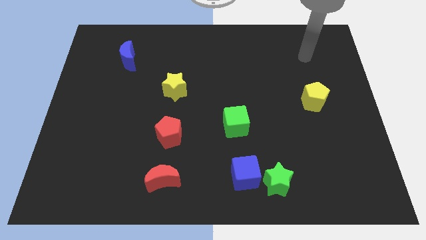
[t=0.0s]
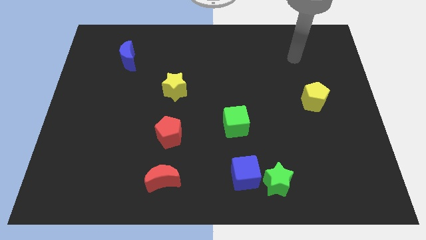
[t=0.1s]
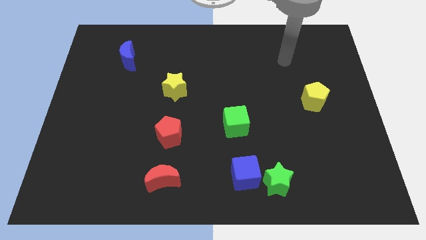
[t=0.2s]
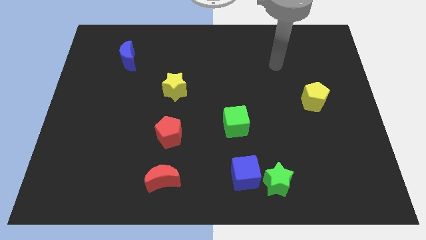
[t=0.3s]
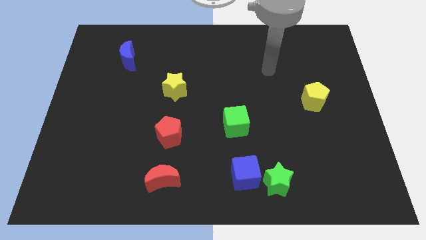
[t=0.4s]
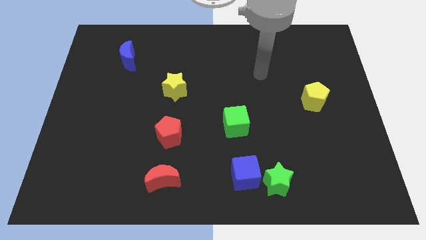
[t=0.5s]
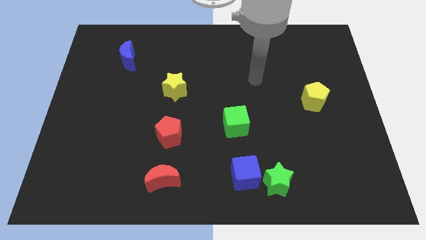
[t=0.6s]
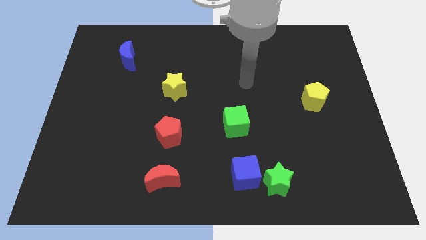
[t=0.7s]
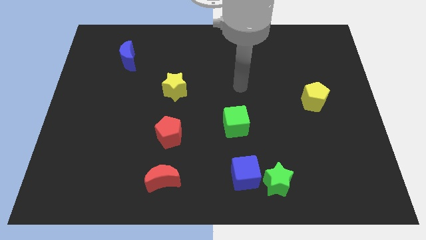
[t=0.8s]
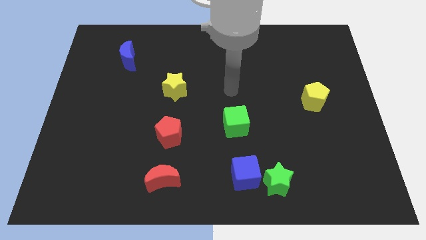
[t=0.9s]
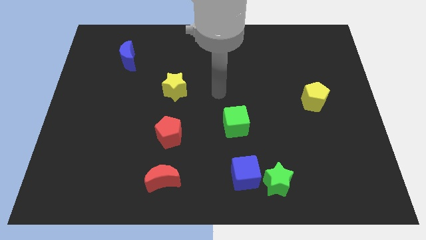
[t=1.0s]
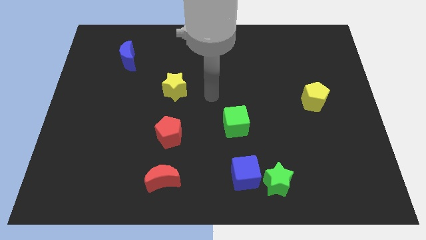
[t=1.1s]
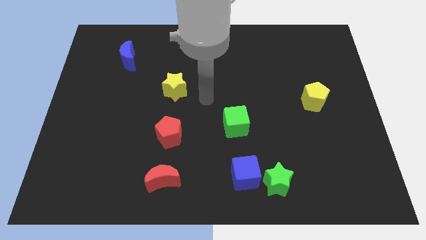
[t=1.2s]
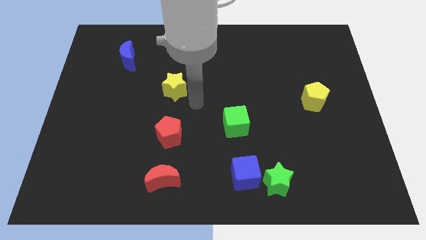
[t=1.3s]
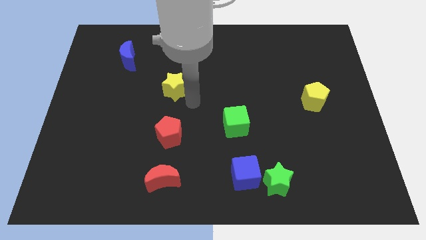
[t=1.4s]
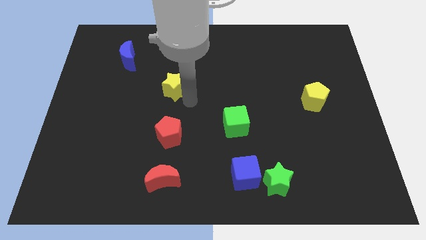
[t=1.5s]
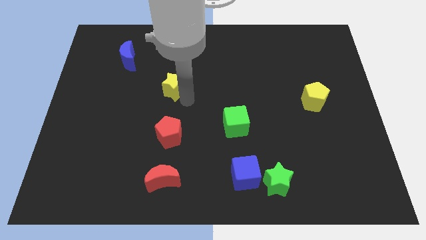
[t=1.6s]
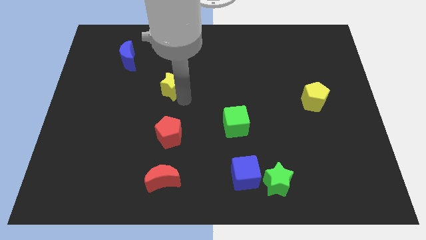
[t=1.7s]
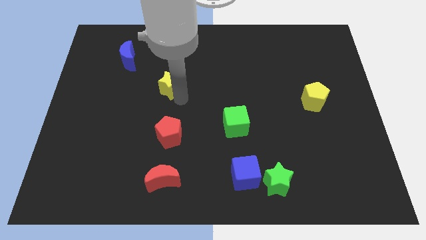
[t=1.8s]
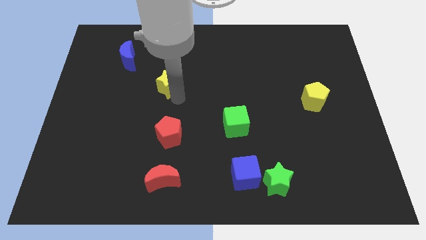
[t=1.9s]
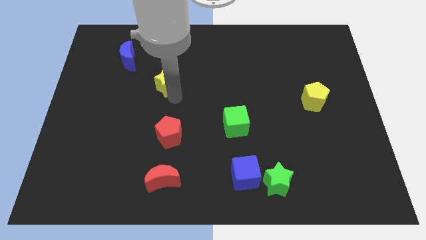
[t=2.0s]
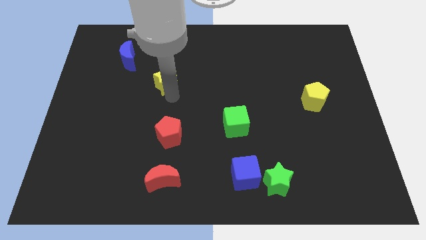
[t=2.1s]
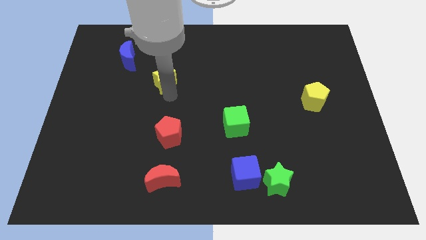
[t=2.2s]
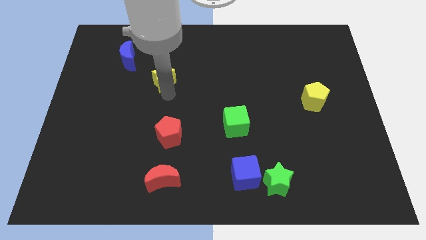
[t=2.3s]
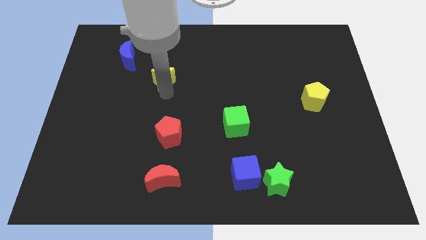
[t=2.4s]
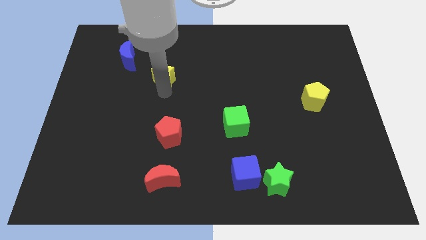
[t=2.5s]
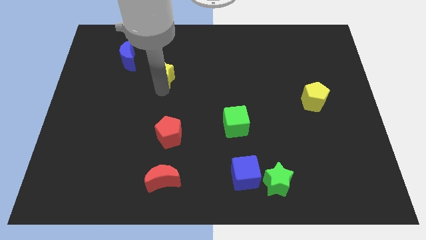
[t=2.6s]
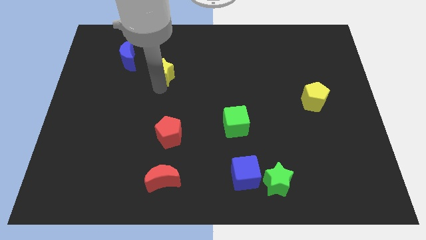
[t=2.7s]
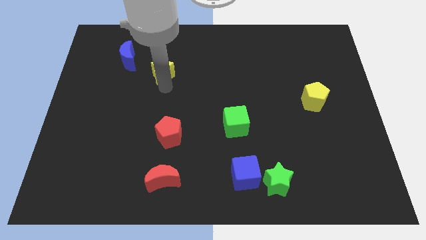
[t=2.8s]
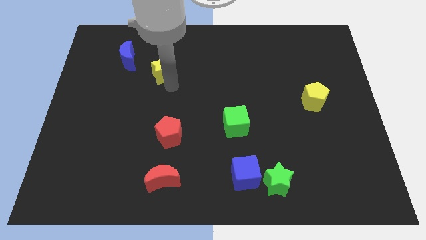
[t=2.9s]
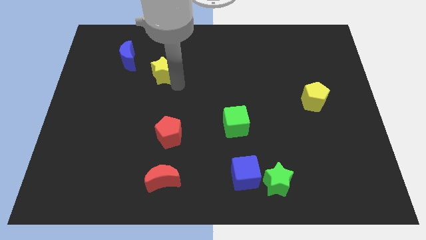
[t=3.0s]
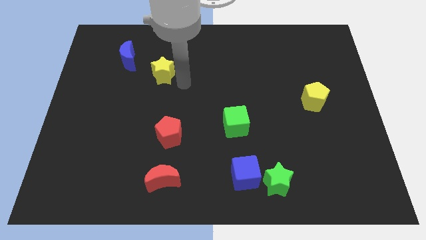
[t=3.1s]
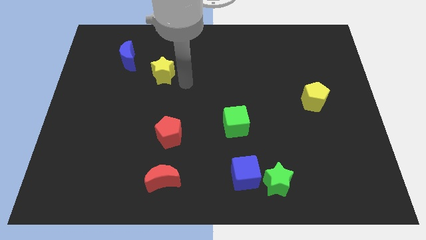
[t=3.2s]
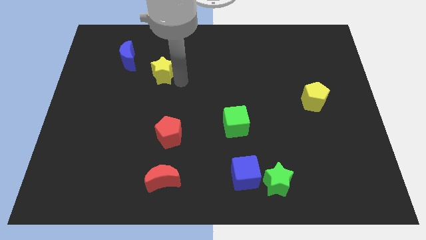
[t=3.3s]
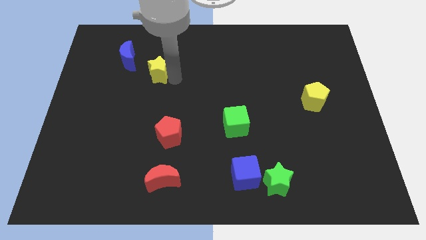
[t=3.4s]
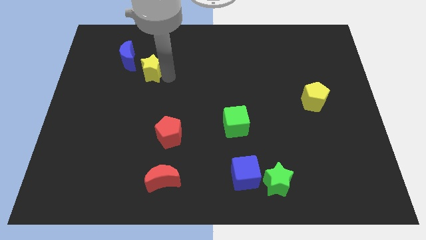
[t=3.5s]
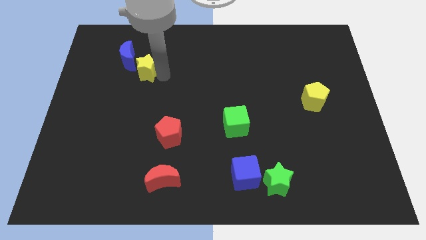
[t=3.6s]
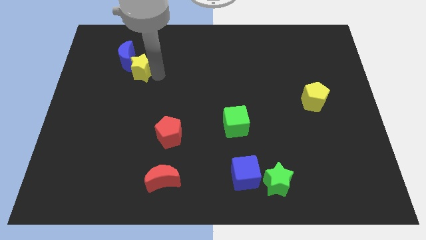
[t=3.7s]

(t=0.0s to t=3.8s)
push the yellow star to the blue moon

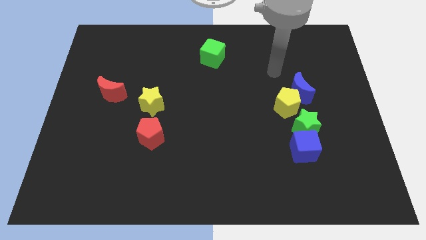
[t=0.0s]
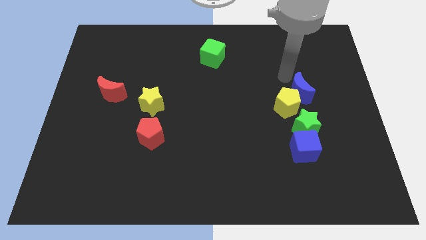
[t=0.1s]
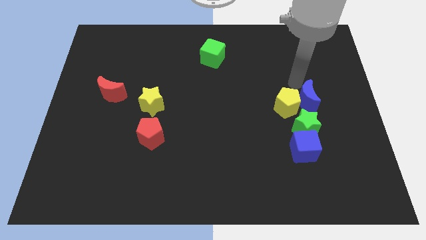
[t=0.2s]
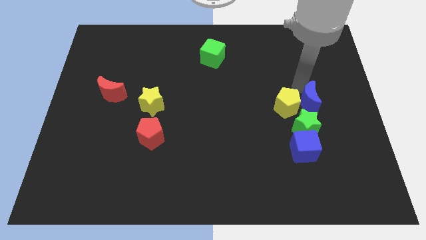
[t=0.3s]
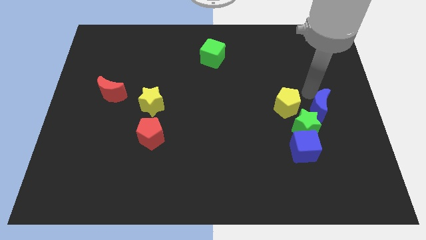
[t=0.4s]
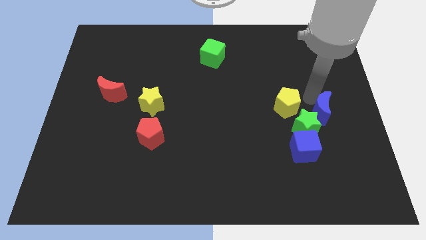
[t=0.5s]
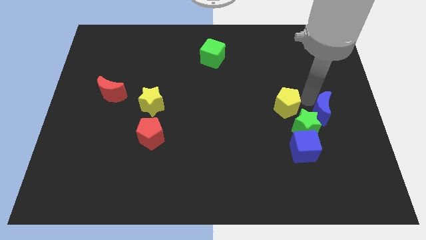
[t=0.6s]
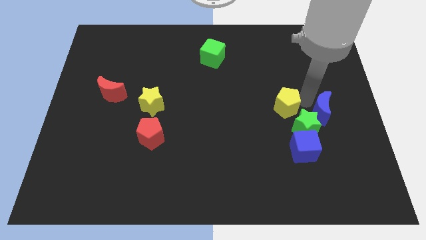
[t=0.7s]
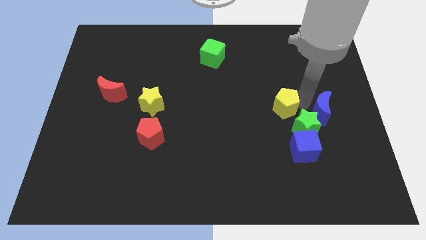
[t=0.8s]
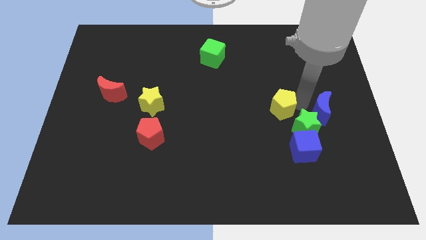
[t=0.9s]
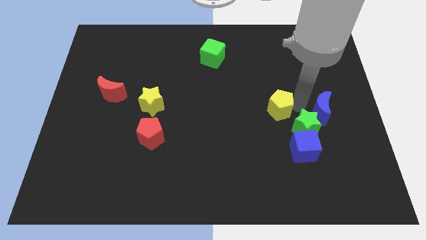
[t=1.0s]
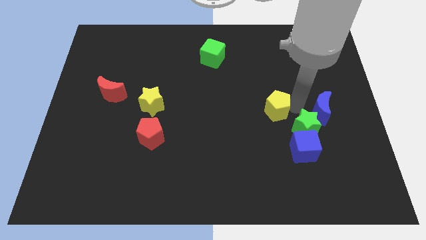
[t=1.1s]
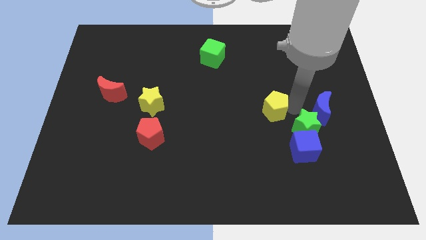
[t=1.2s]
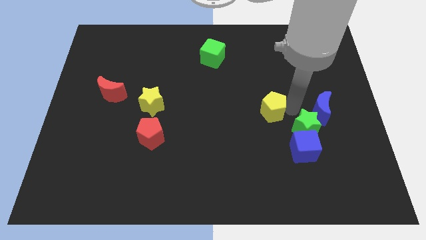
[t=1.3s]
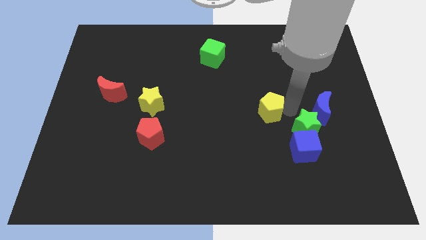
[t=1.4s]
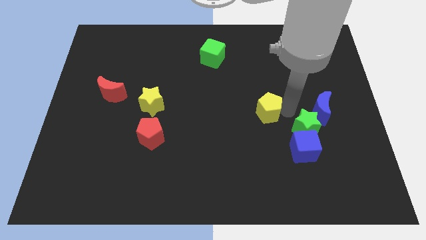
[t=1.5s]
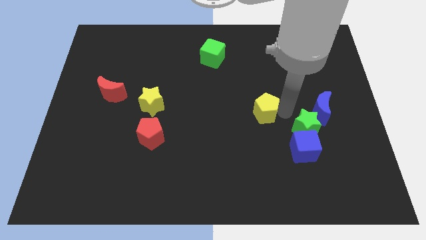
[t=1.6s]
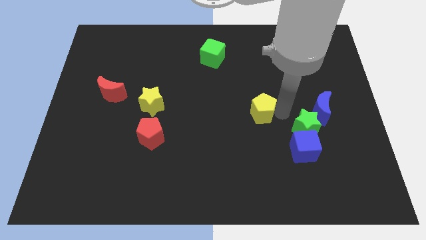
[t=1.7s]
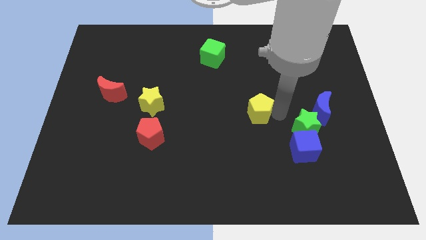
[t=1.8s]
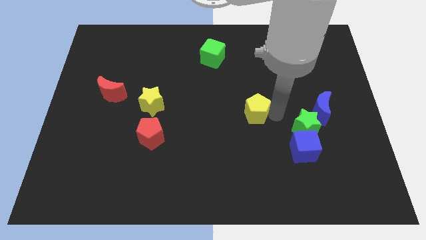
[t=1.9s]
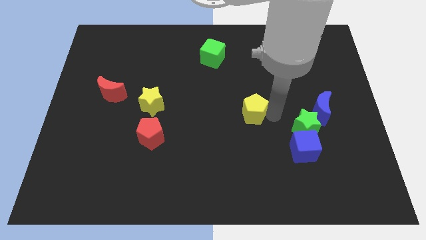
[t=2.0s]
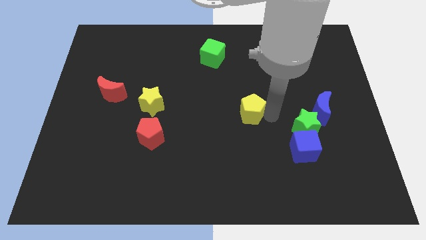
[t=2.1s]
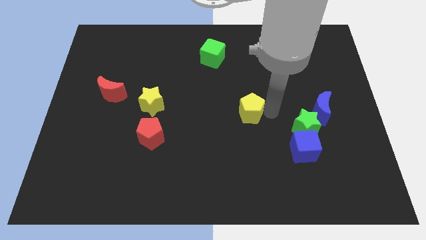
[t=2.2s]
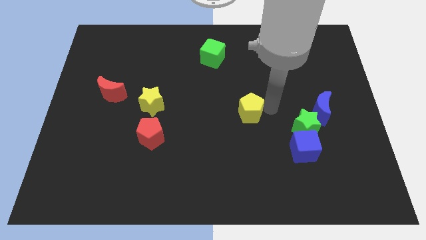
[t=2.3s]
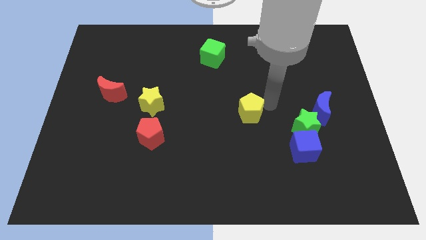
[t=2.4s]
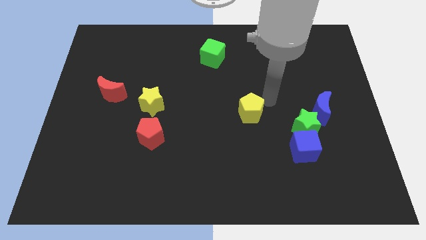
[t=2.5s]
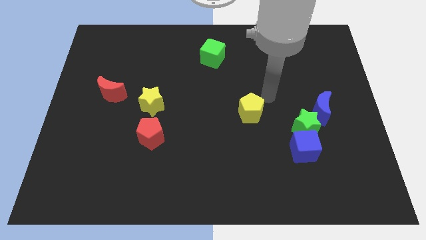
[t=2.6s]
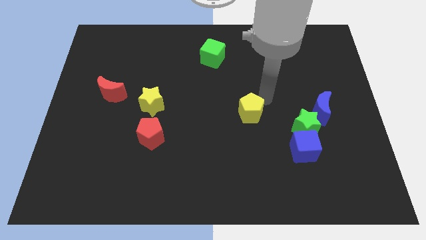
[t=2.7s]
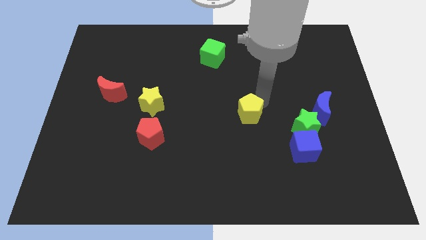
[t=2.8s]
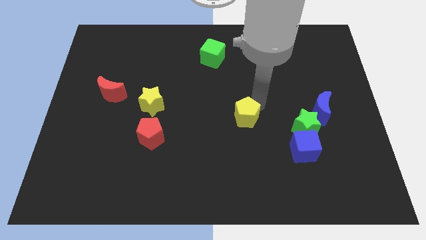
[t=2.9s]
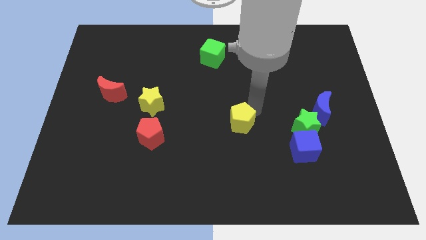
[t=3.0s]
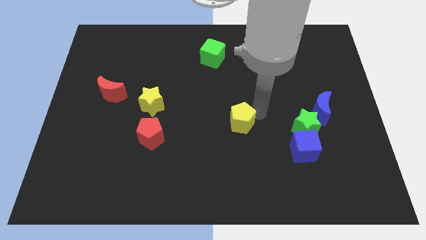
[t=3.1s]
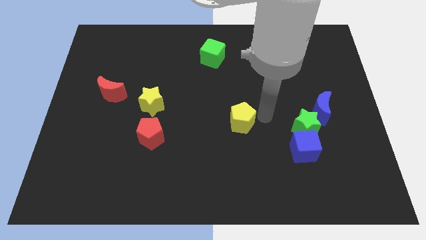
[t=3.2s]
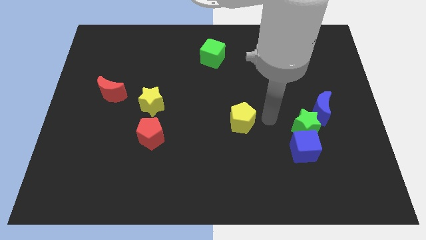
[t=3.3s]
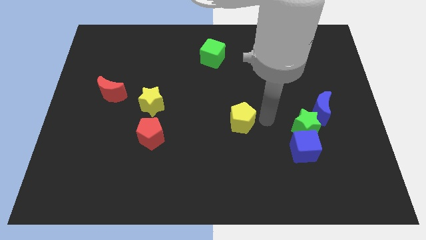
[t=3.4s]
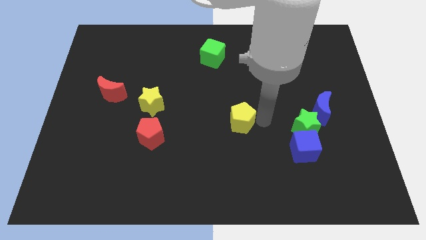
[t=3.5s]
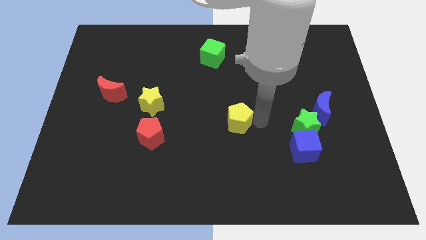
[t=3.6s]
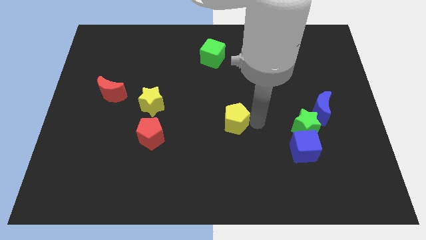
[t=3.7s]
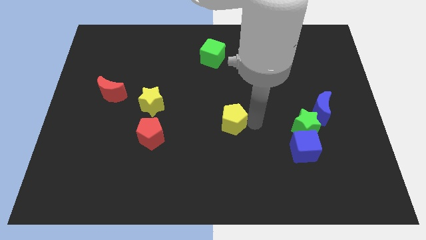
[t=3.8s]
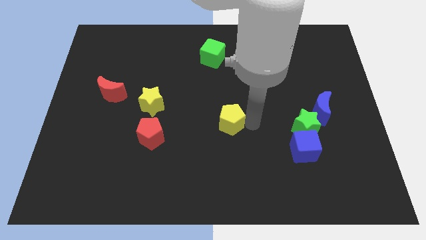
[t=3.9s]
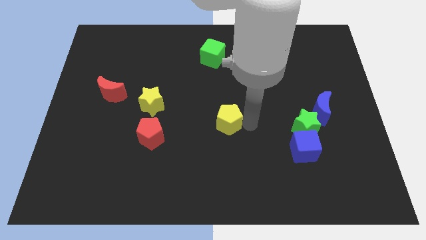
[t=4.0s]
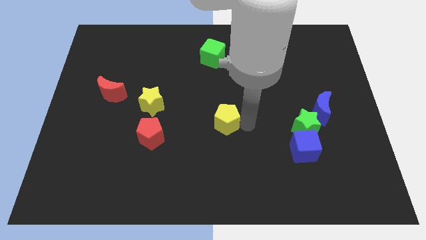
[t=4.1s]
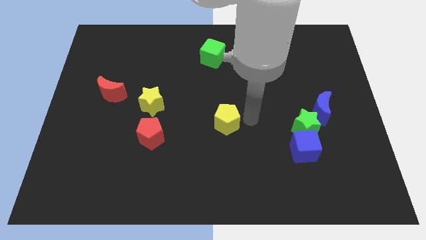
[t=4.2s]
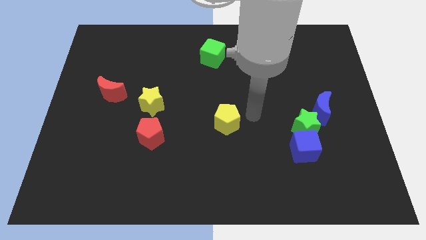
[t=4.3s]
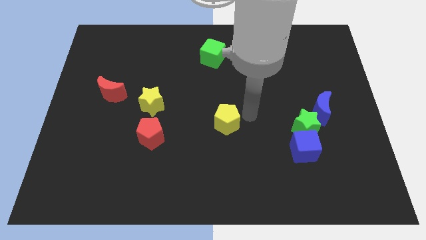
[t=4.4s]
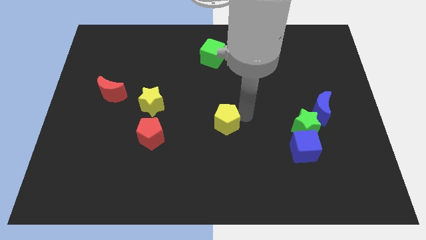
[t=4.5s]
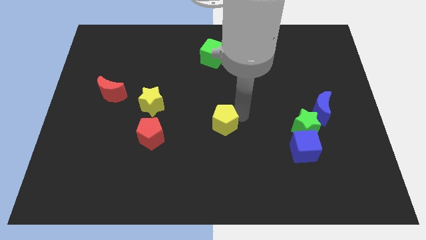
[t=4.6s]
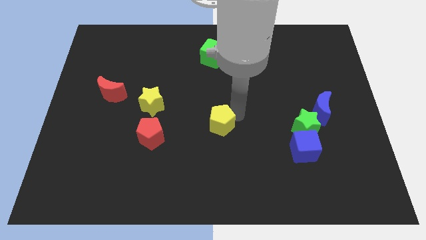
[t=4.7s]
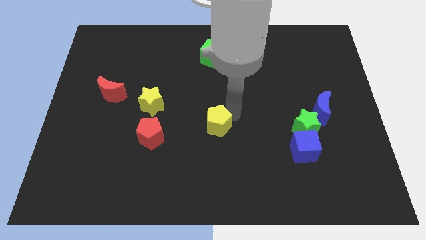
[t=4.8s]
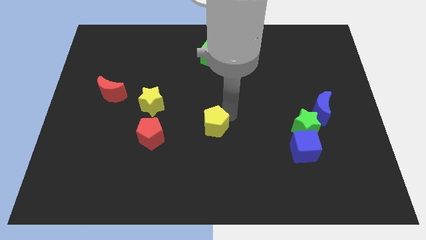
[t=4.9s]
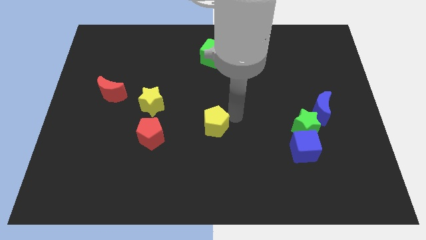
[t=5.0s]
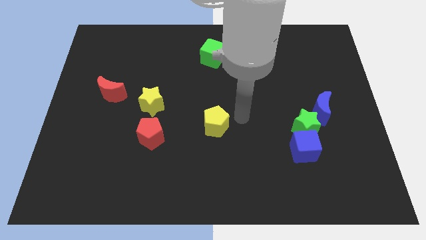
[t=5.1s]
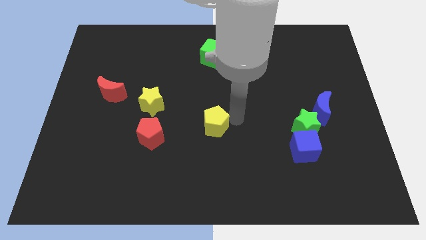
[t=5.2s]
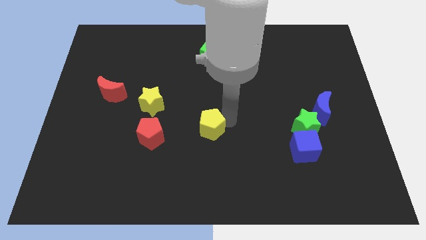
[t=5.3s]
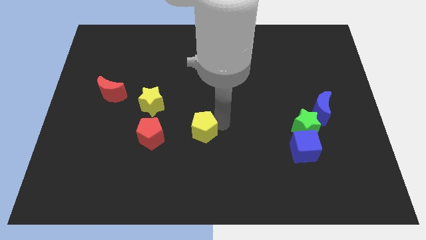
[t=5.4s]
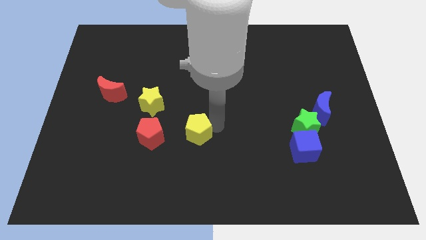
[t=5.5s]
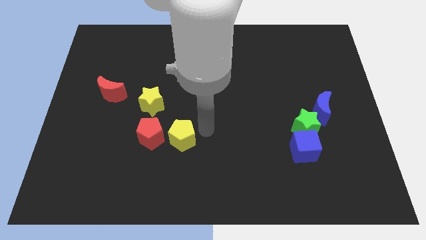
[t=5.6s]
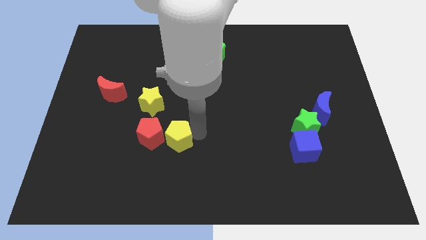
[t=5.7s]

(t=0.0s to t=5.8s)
slide the yellow pentagon towards the red pentagon
